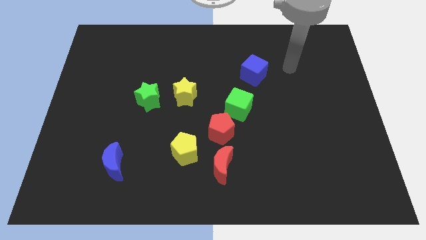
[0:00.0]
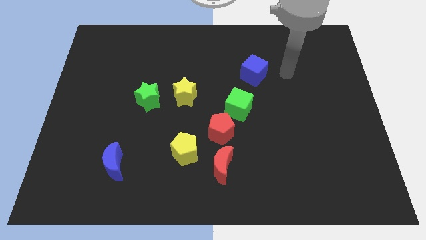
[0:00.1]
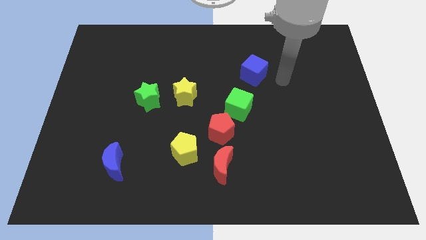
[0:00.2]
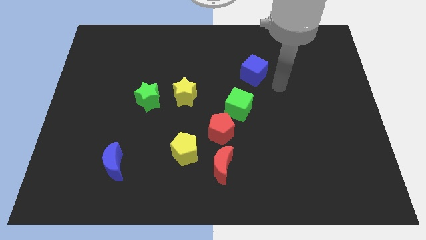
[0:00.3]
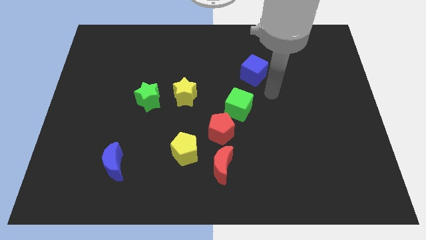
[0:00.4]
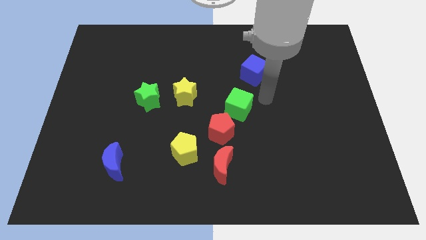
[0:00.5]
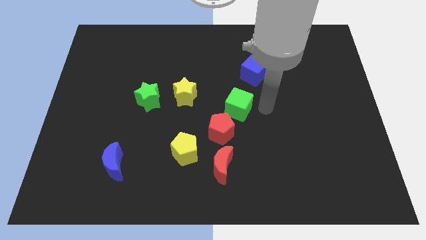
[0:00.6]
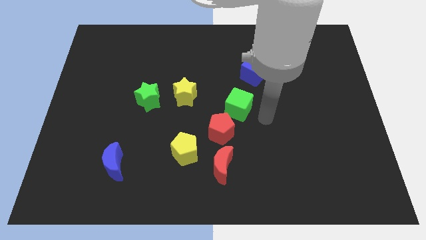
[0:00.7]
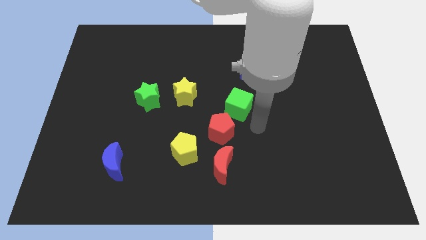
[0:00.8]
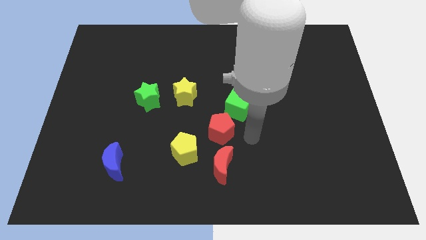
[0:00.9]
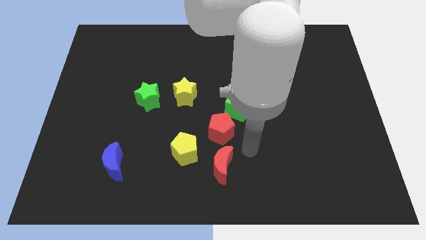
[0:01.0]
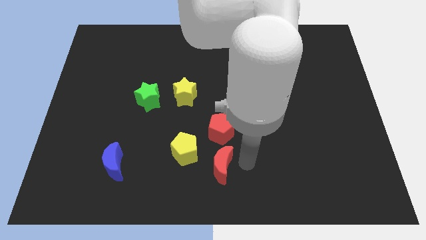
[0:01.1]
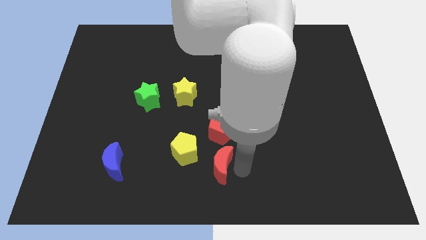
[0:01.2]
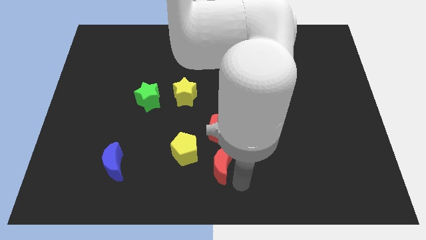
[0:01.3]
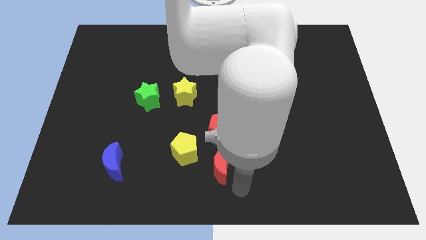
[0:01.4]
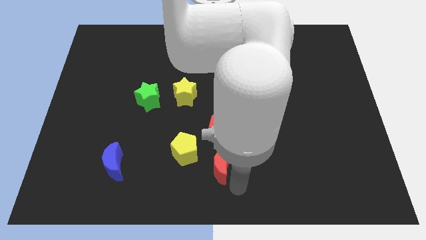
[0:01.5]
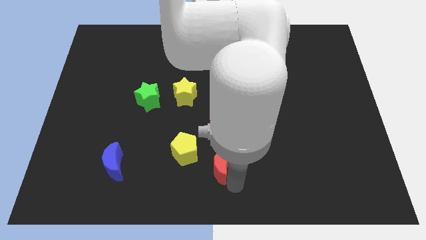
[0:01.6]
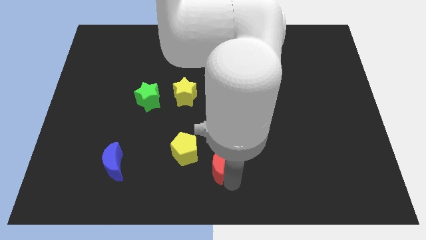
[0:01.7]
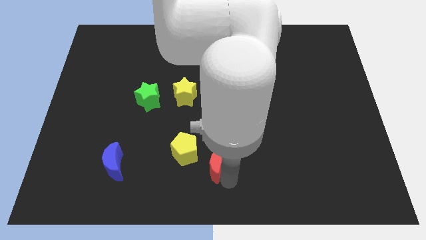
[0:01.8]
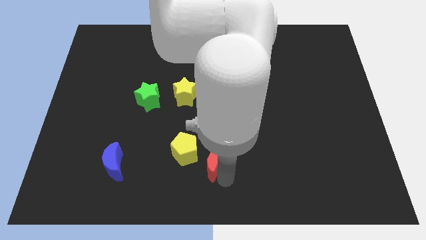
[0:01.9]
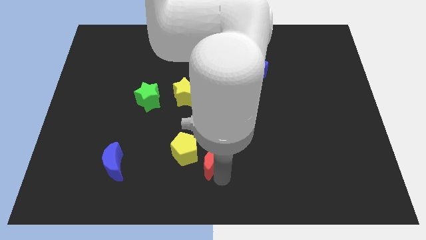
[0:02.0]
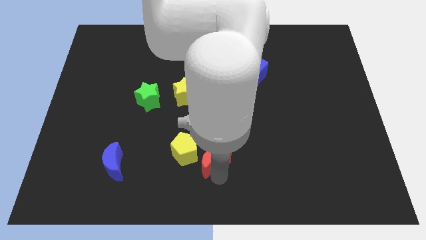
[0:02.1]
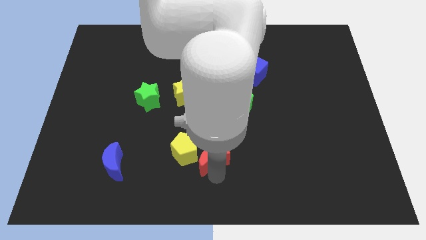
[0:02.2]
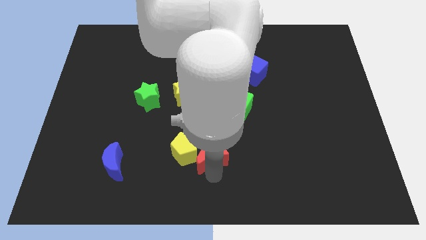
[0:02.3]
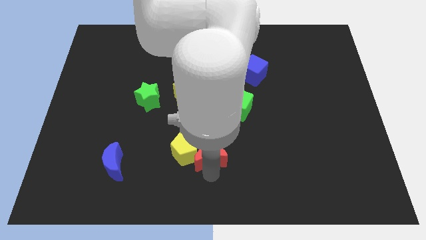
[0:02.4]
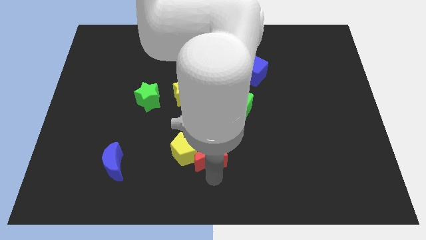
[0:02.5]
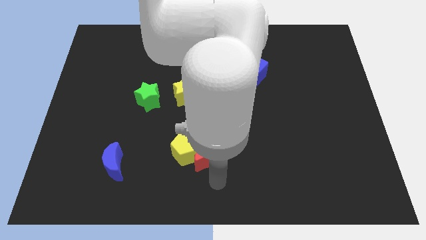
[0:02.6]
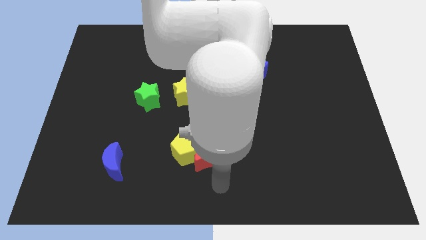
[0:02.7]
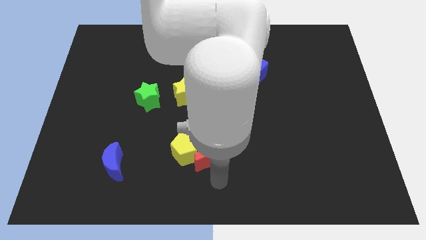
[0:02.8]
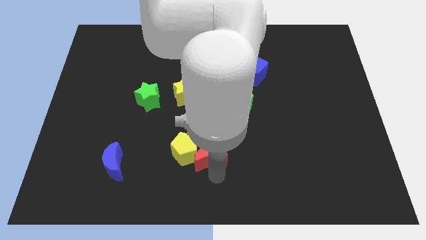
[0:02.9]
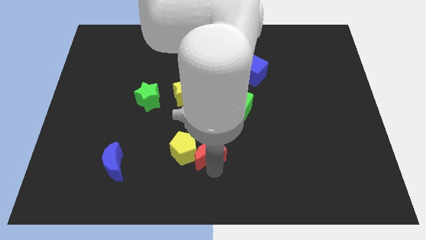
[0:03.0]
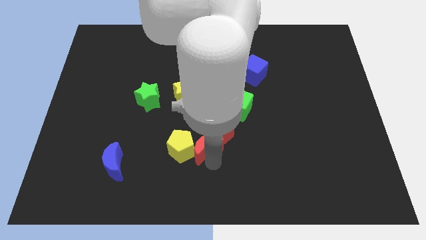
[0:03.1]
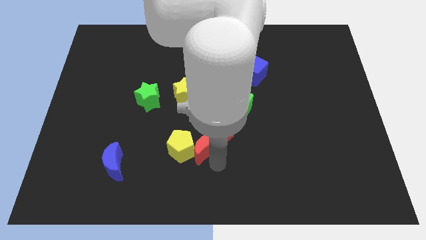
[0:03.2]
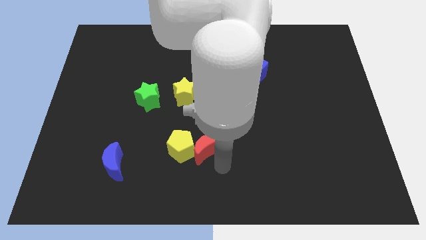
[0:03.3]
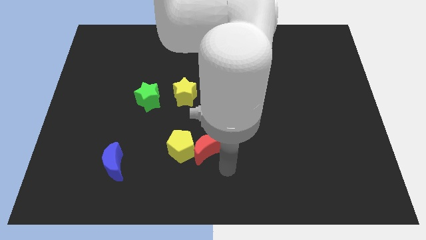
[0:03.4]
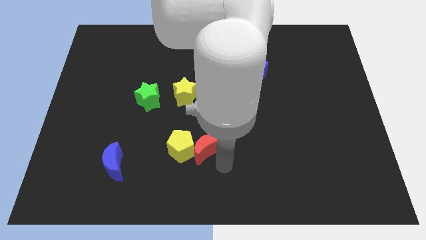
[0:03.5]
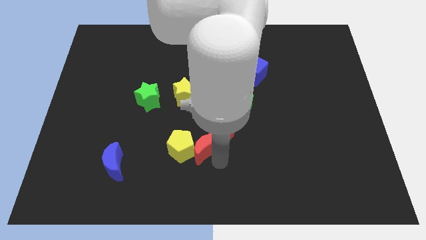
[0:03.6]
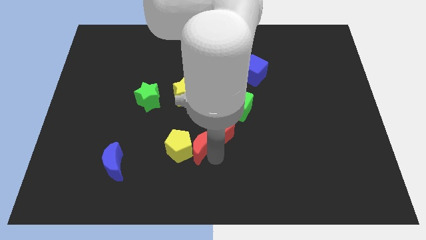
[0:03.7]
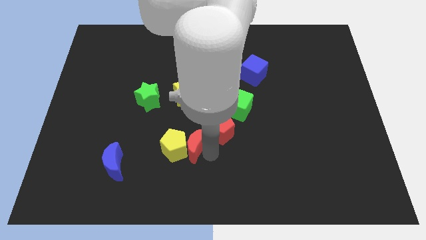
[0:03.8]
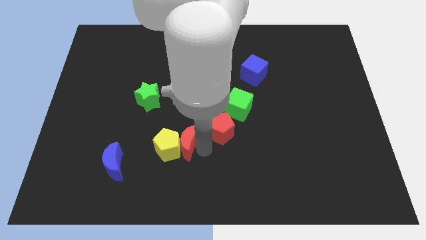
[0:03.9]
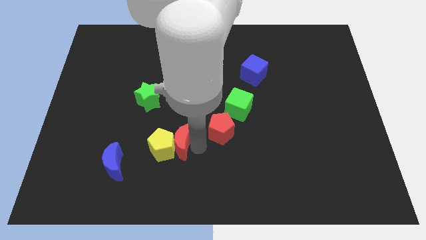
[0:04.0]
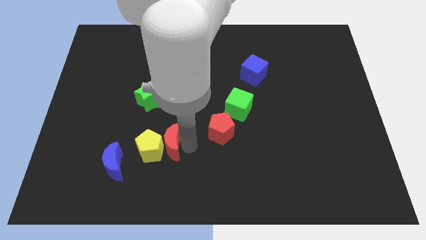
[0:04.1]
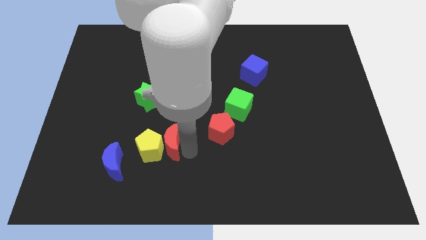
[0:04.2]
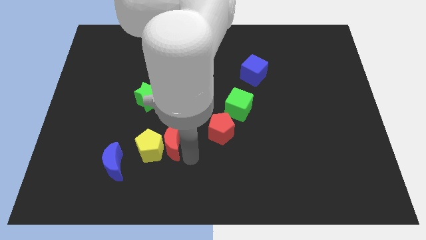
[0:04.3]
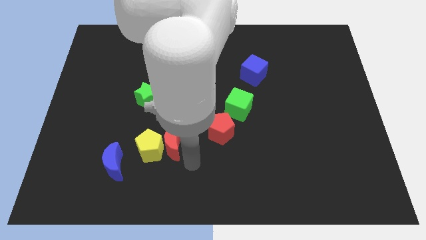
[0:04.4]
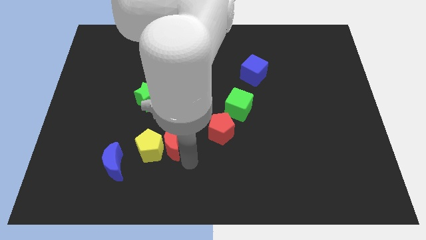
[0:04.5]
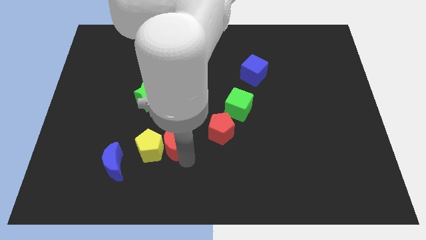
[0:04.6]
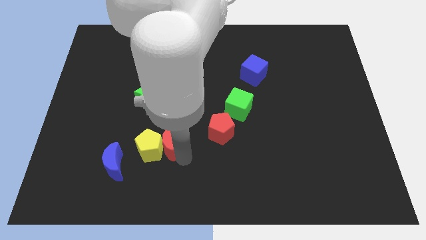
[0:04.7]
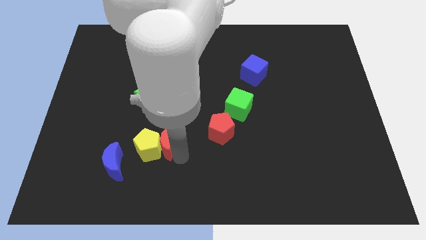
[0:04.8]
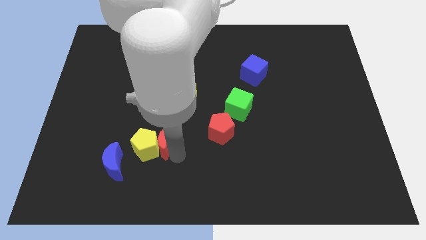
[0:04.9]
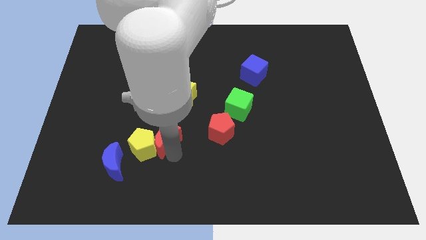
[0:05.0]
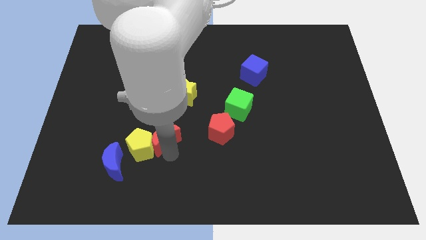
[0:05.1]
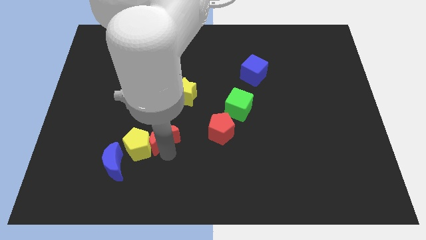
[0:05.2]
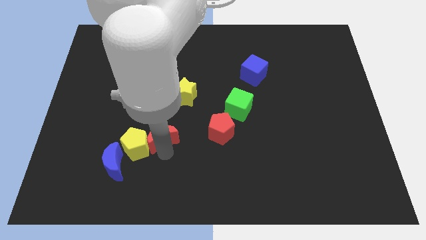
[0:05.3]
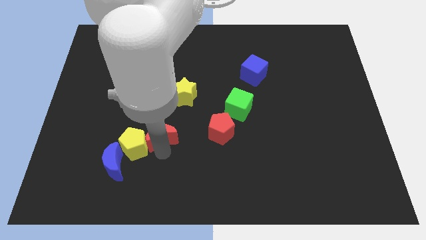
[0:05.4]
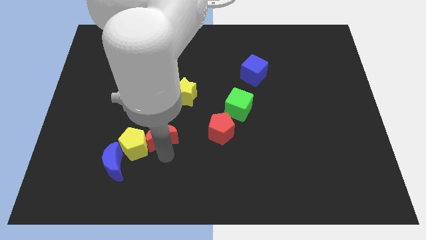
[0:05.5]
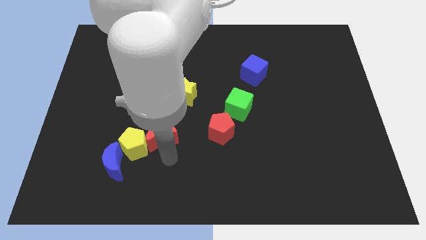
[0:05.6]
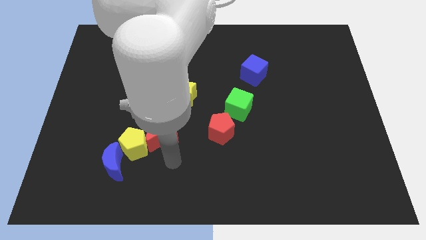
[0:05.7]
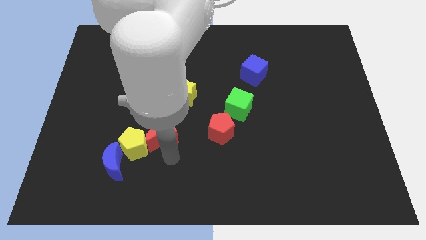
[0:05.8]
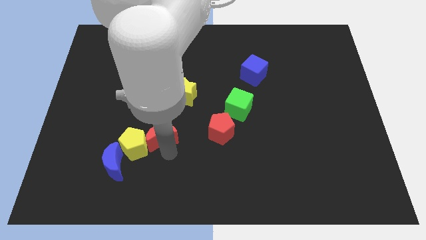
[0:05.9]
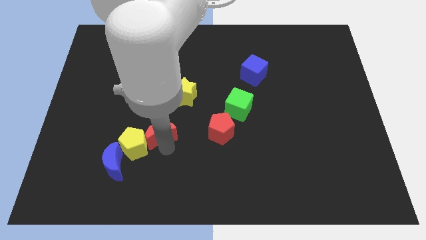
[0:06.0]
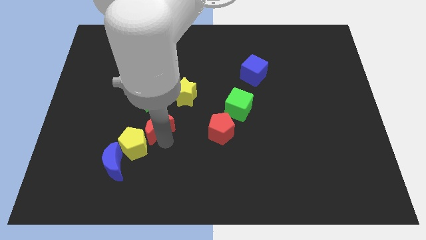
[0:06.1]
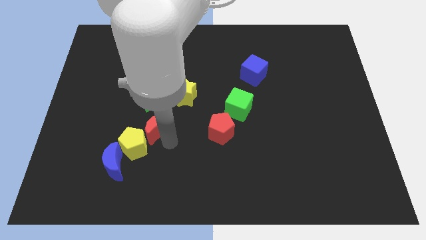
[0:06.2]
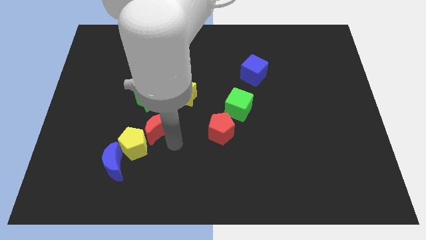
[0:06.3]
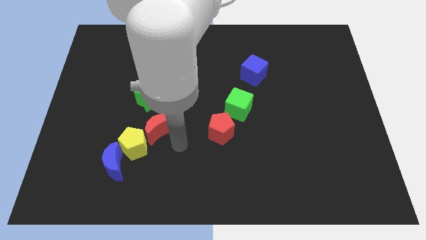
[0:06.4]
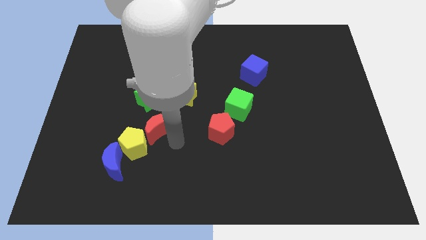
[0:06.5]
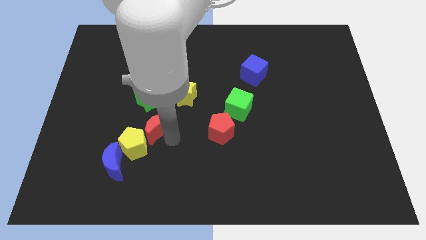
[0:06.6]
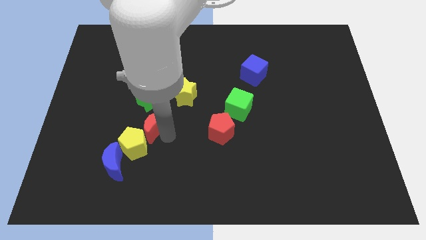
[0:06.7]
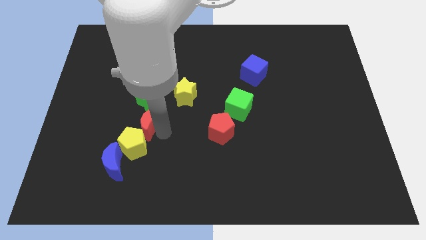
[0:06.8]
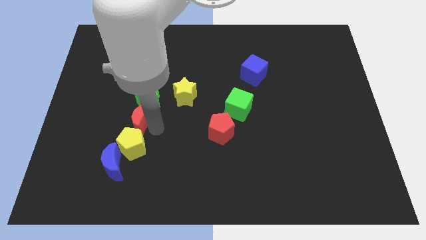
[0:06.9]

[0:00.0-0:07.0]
push the red moon upwards and then to the left

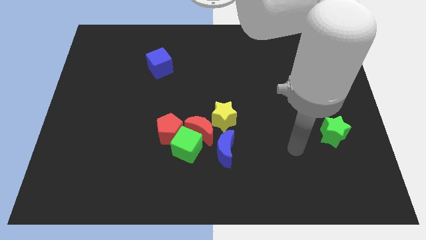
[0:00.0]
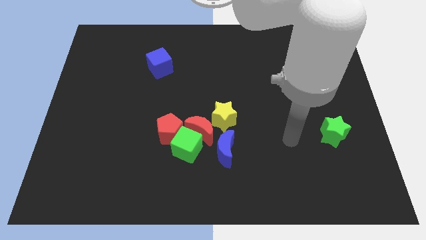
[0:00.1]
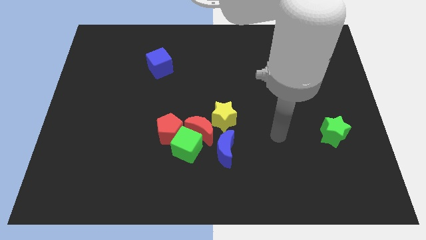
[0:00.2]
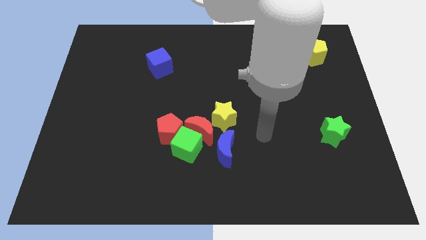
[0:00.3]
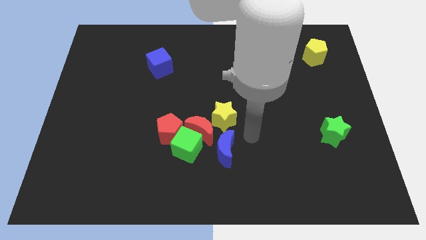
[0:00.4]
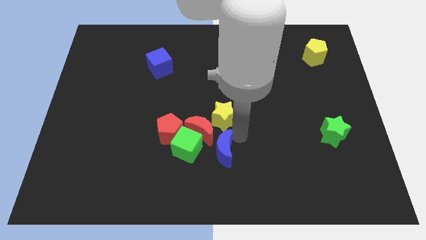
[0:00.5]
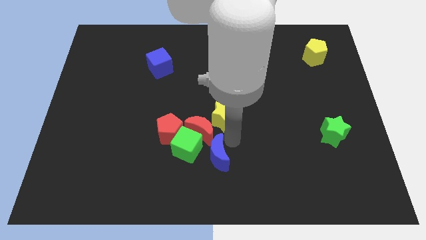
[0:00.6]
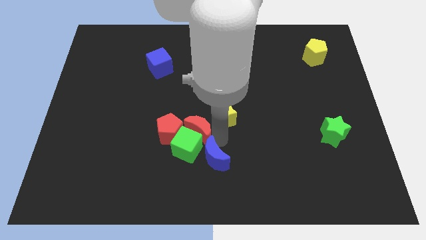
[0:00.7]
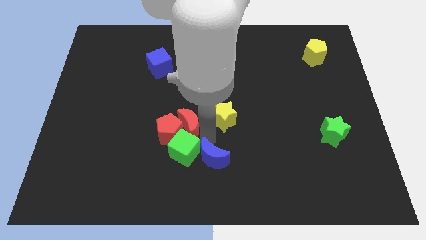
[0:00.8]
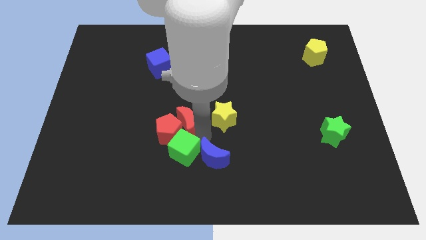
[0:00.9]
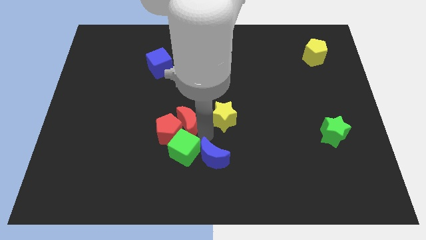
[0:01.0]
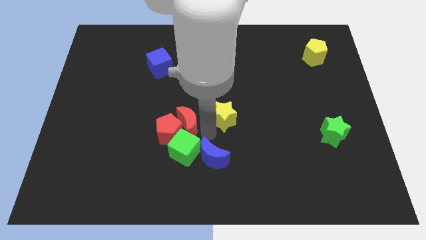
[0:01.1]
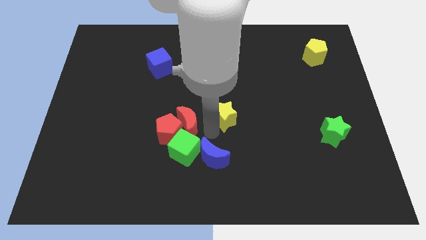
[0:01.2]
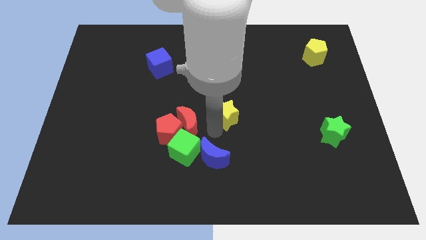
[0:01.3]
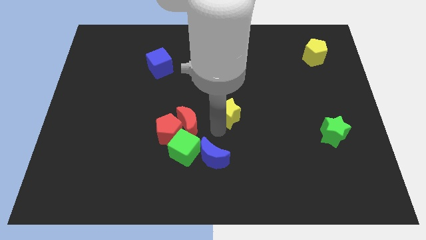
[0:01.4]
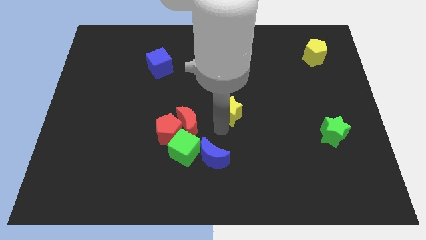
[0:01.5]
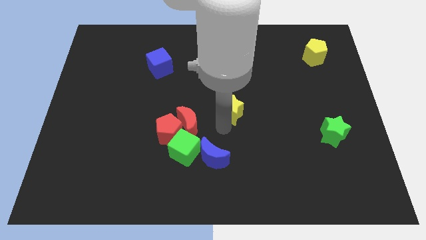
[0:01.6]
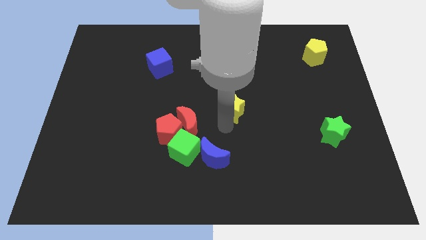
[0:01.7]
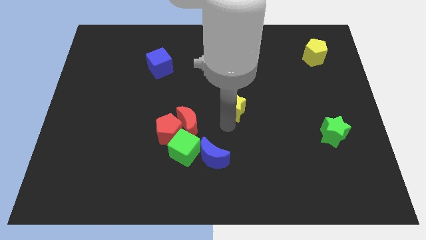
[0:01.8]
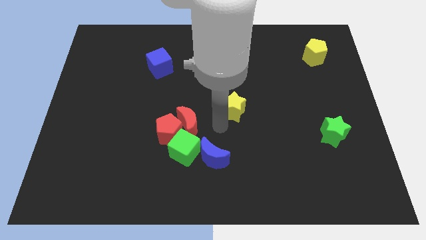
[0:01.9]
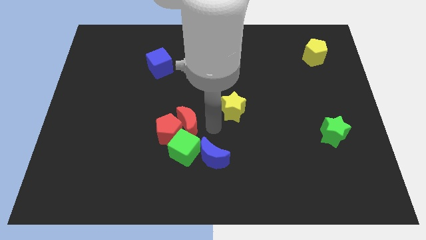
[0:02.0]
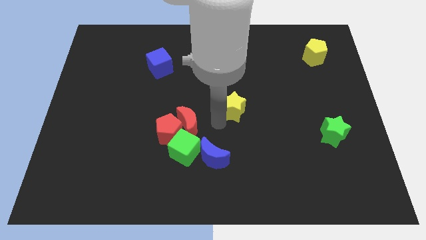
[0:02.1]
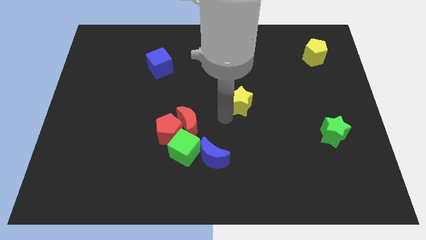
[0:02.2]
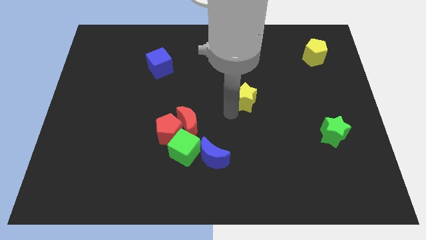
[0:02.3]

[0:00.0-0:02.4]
slide the yellow star upwards and then right a little bit
